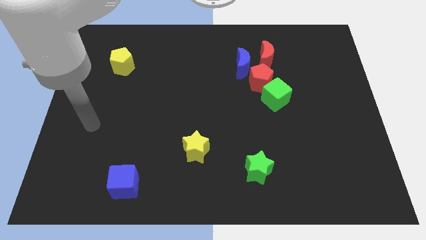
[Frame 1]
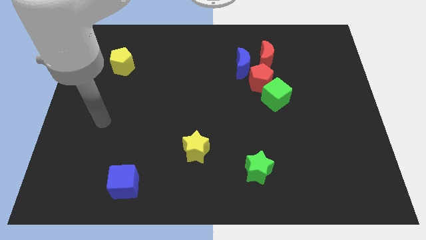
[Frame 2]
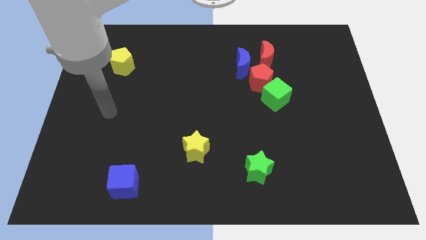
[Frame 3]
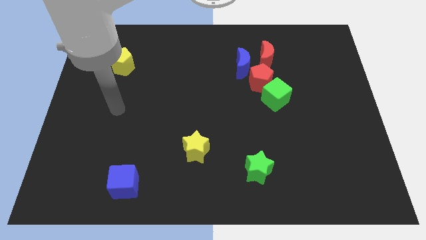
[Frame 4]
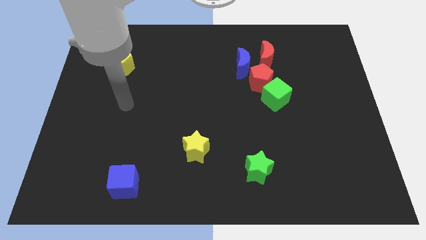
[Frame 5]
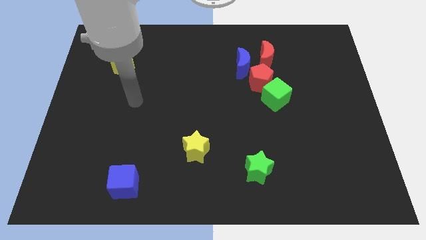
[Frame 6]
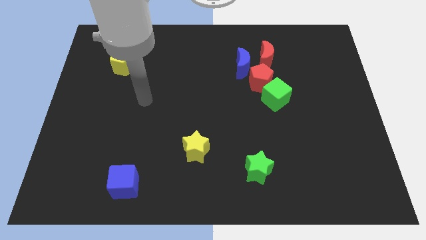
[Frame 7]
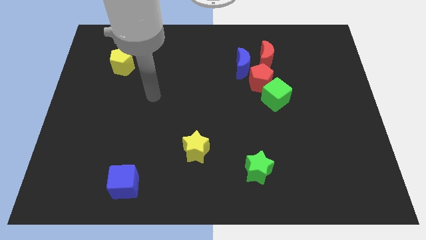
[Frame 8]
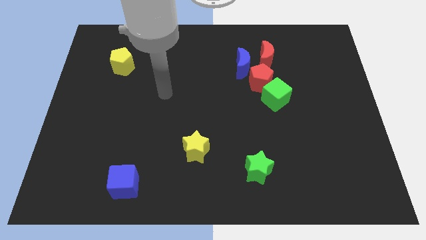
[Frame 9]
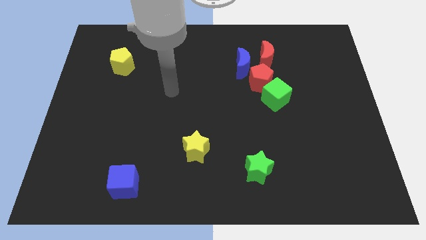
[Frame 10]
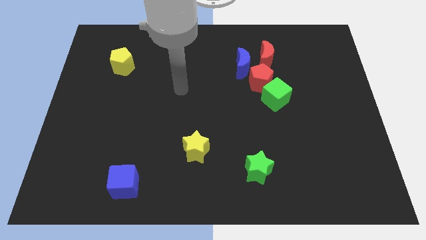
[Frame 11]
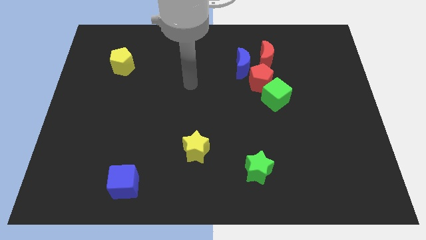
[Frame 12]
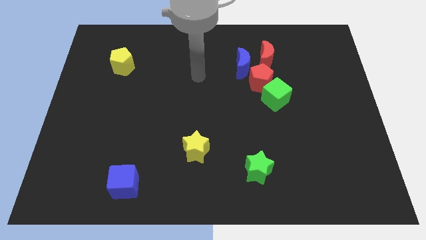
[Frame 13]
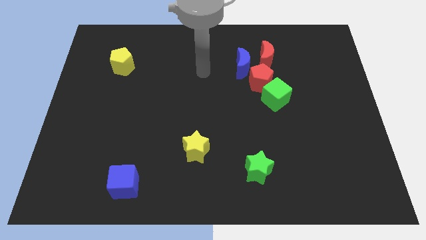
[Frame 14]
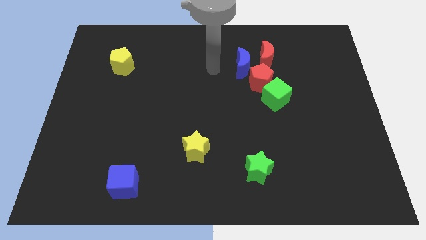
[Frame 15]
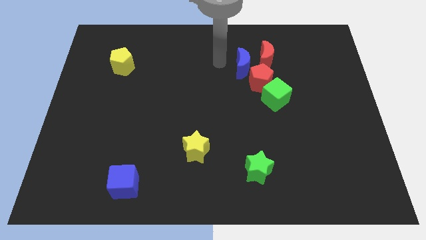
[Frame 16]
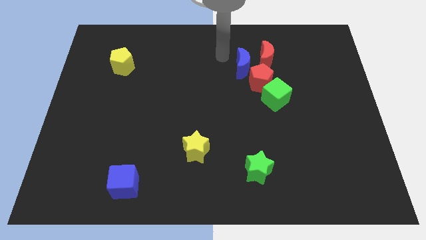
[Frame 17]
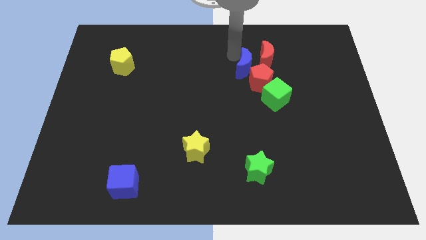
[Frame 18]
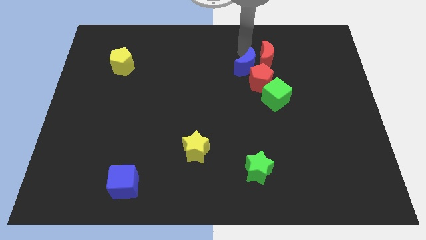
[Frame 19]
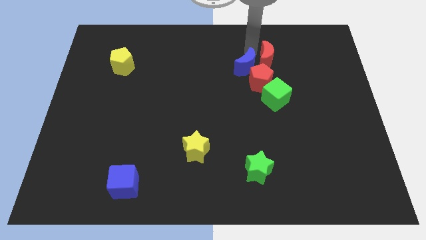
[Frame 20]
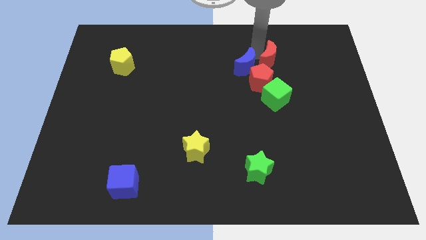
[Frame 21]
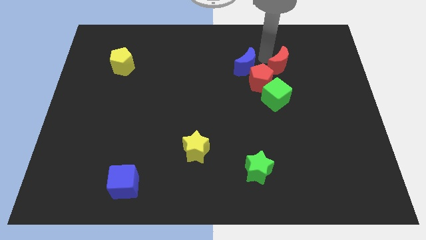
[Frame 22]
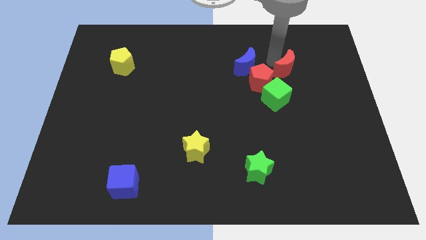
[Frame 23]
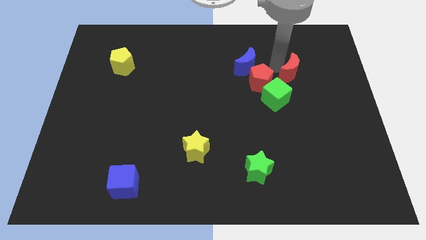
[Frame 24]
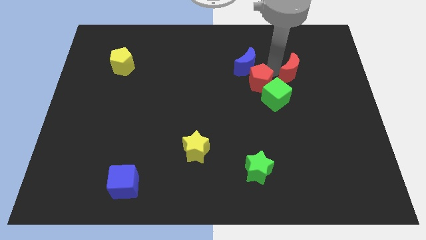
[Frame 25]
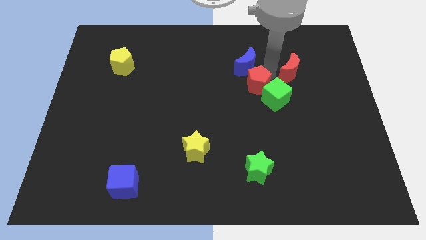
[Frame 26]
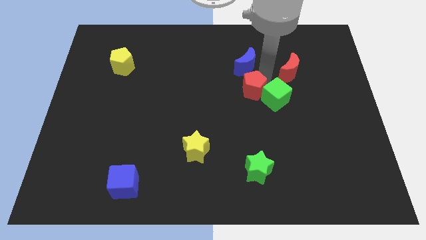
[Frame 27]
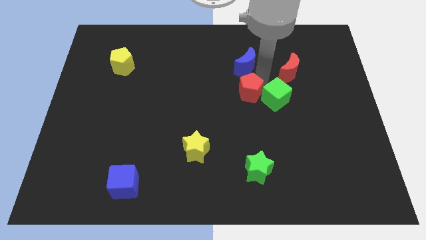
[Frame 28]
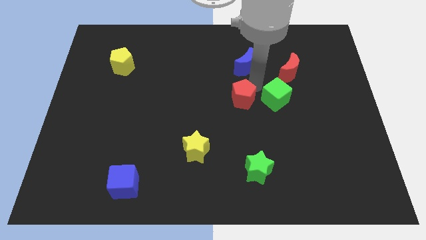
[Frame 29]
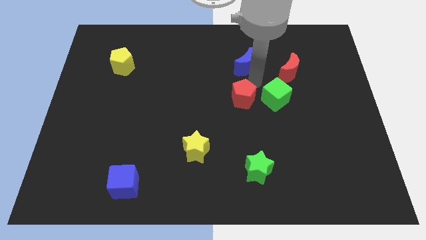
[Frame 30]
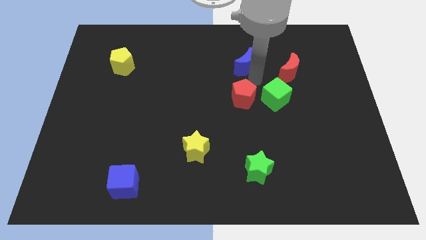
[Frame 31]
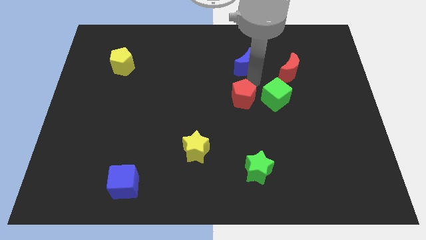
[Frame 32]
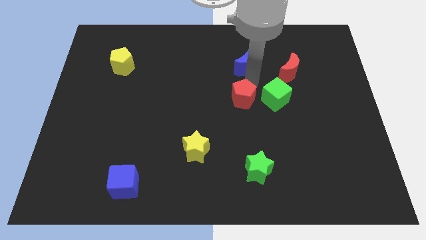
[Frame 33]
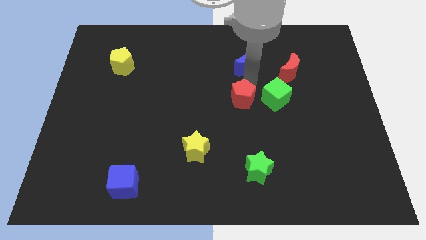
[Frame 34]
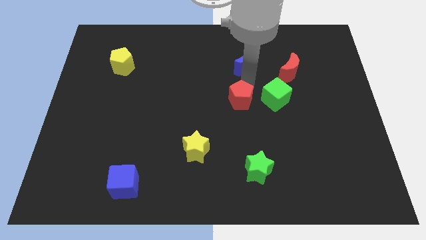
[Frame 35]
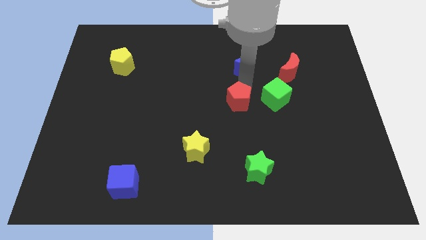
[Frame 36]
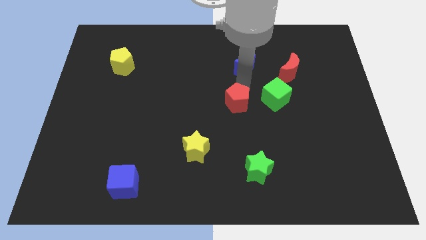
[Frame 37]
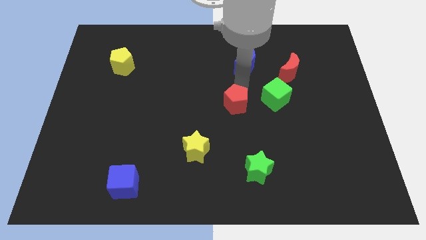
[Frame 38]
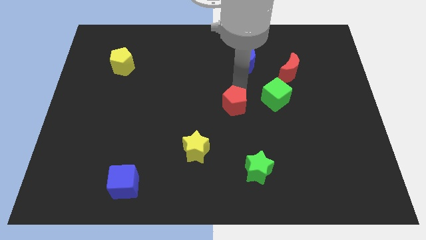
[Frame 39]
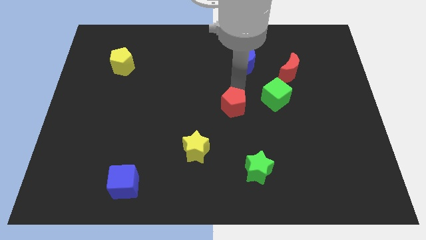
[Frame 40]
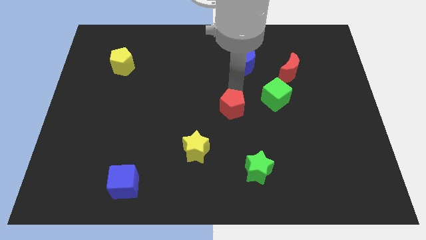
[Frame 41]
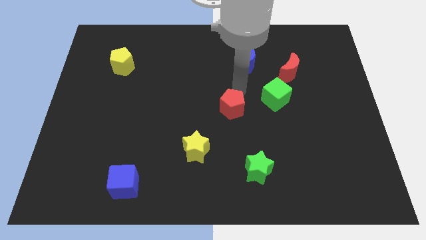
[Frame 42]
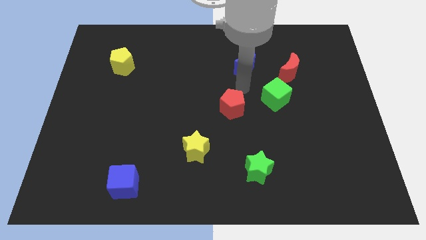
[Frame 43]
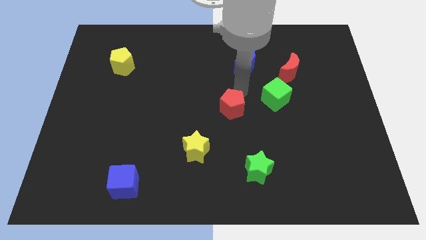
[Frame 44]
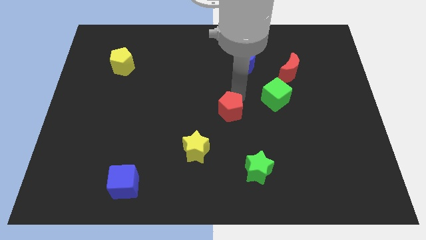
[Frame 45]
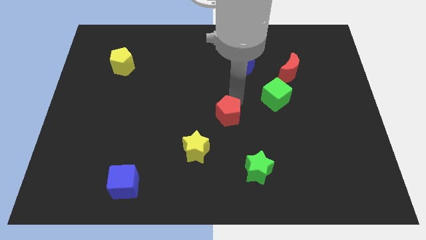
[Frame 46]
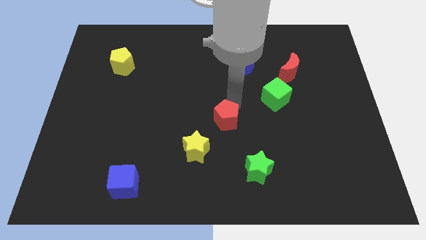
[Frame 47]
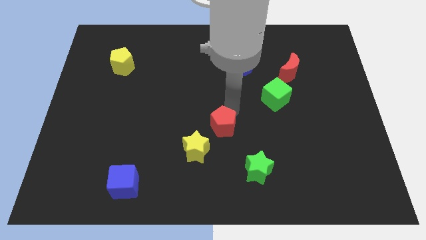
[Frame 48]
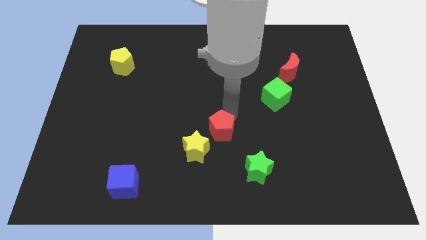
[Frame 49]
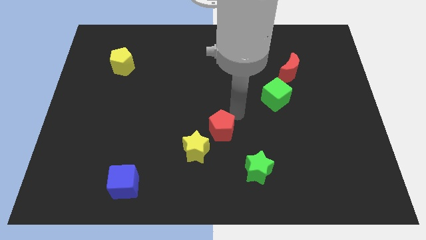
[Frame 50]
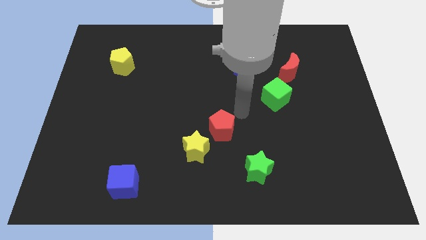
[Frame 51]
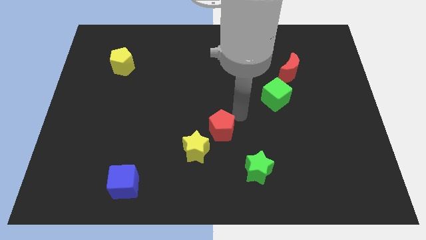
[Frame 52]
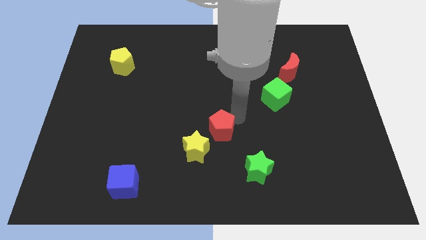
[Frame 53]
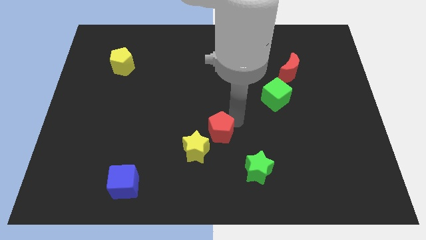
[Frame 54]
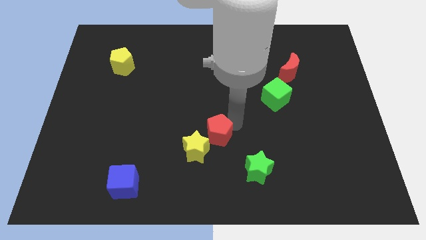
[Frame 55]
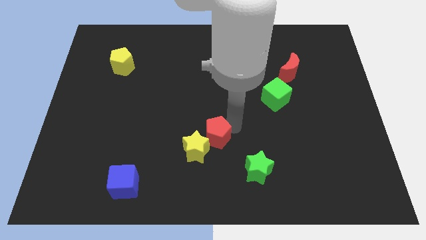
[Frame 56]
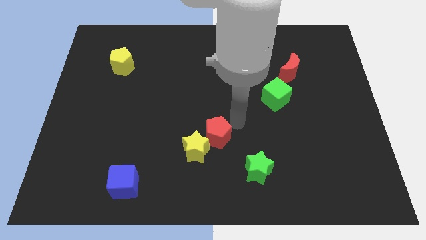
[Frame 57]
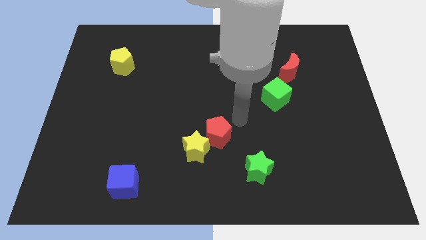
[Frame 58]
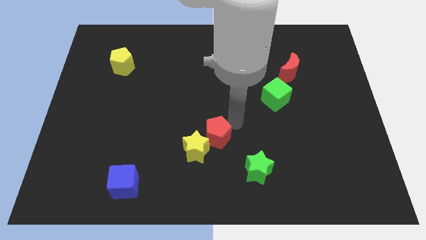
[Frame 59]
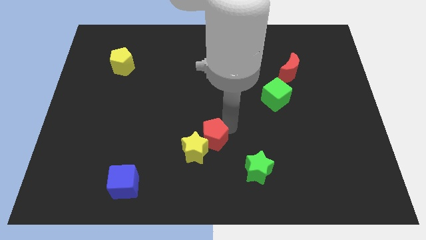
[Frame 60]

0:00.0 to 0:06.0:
move the red pentagon towards the yellow star

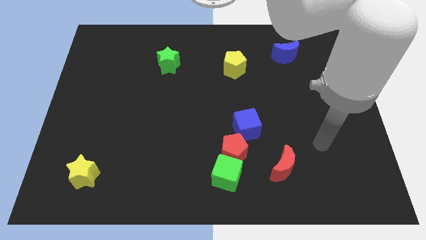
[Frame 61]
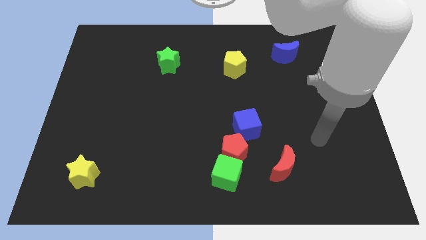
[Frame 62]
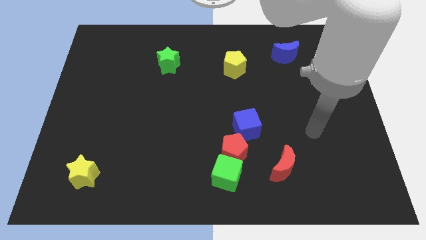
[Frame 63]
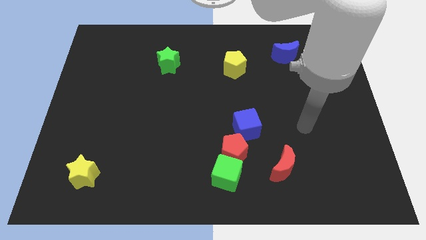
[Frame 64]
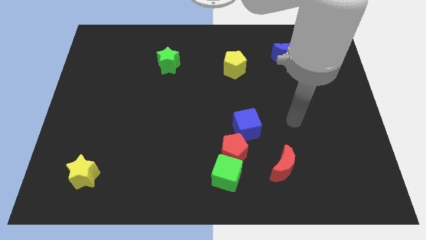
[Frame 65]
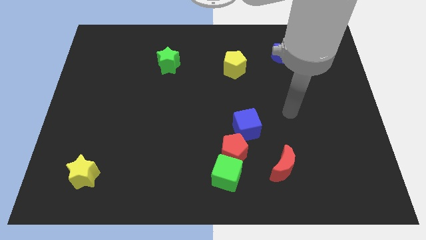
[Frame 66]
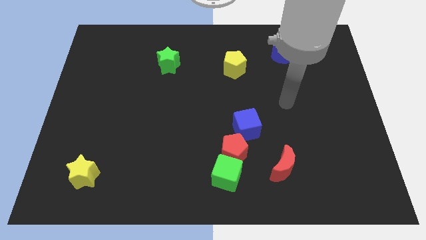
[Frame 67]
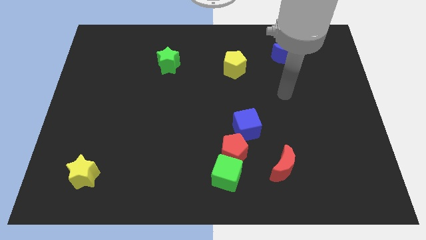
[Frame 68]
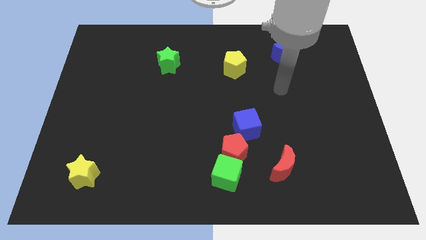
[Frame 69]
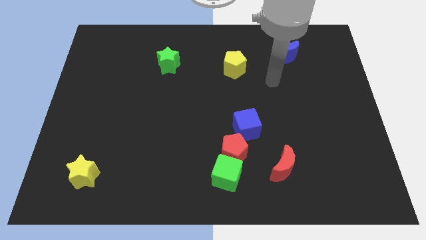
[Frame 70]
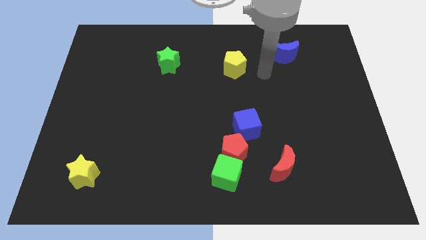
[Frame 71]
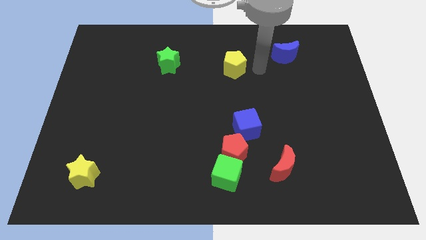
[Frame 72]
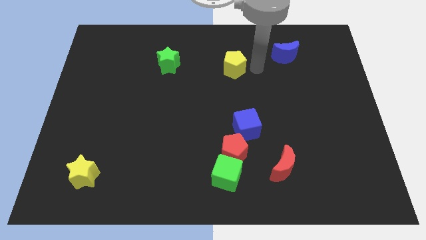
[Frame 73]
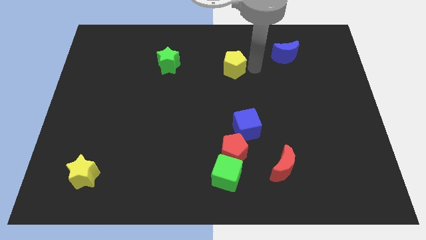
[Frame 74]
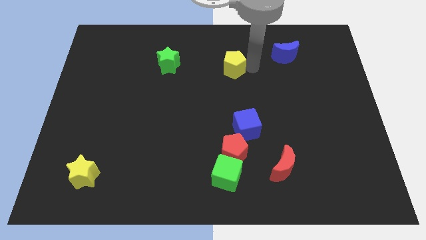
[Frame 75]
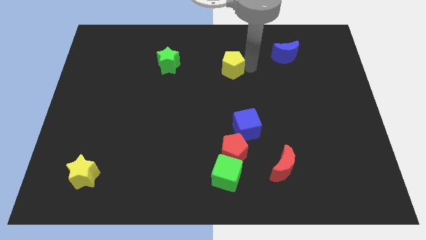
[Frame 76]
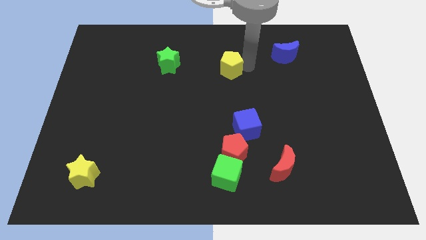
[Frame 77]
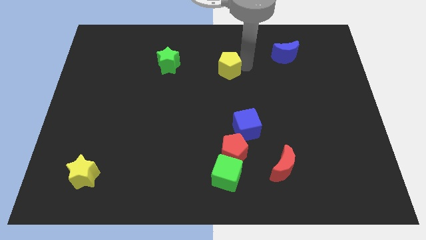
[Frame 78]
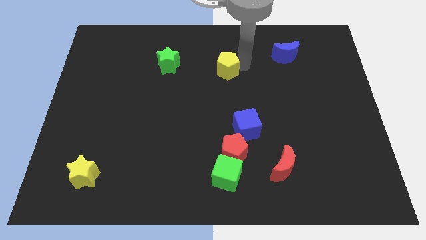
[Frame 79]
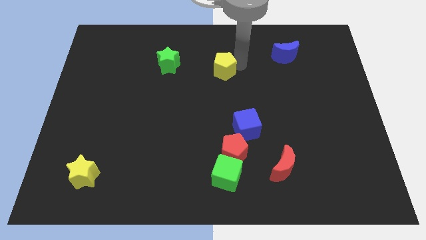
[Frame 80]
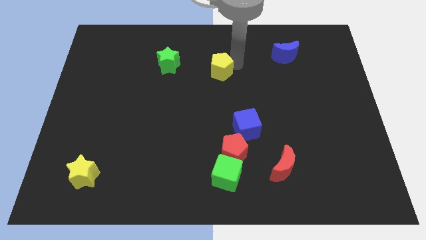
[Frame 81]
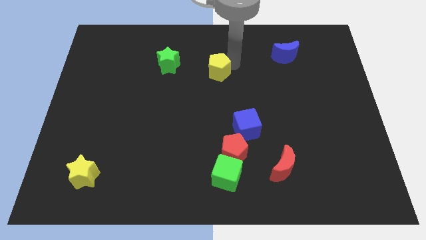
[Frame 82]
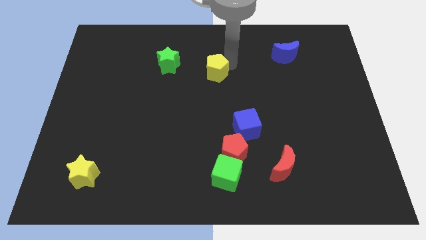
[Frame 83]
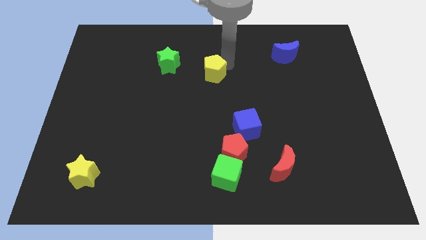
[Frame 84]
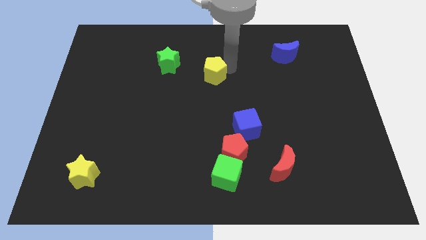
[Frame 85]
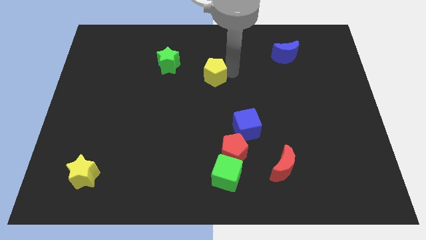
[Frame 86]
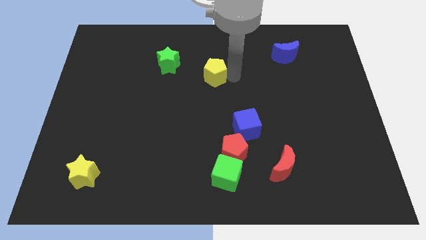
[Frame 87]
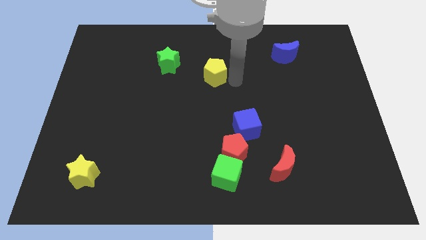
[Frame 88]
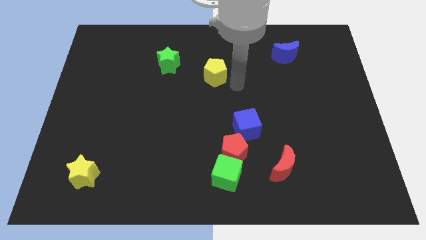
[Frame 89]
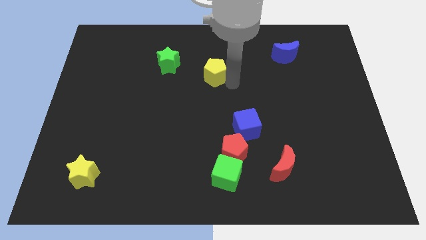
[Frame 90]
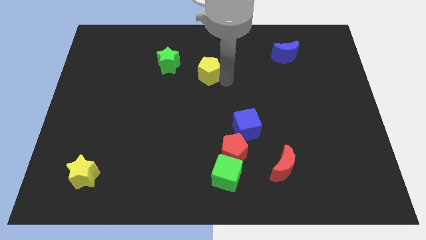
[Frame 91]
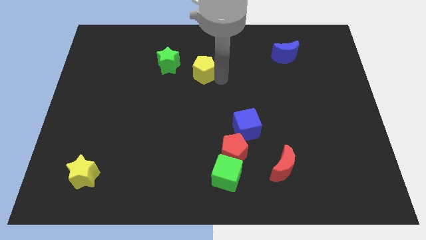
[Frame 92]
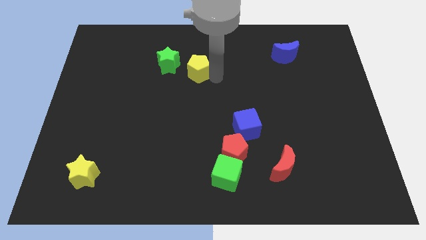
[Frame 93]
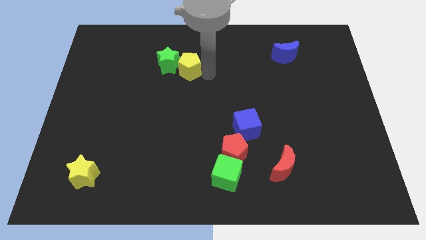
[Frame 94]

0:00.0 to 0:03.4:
put the yellow pentagon towards the green star
